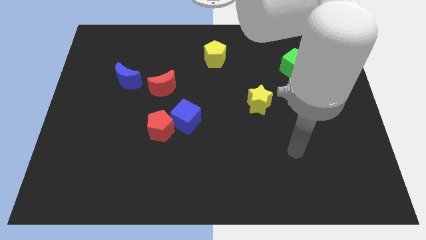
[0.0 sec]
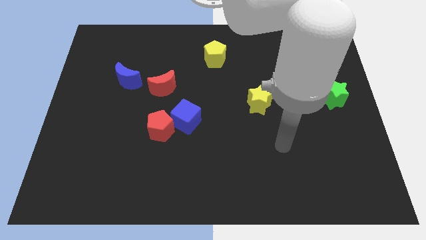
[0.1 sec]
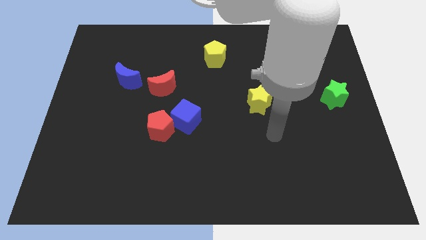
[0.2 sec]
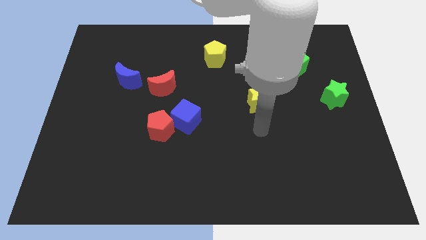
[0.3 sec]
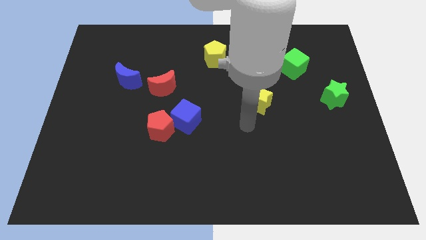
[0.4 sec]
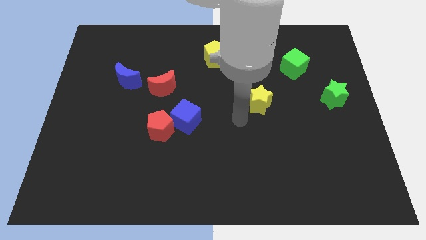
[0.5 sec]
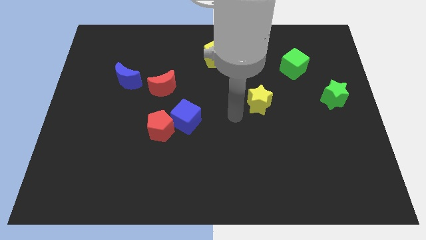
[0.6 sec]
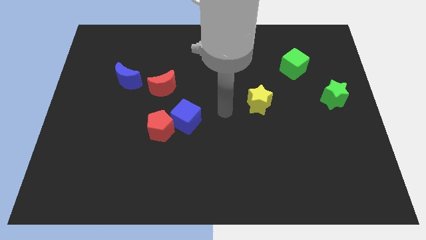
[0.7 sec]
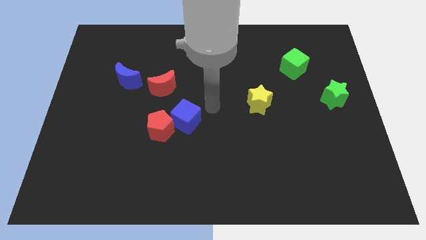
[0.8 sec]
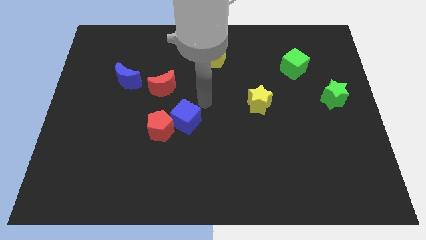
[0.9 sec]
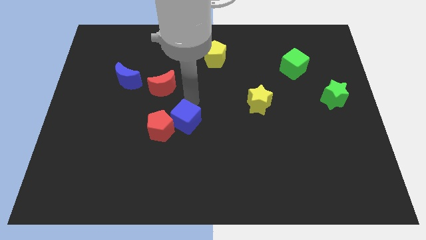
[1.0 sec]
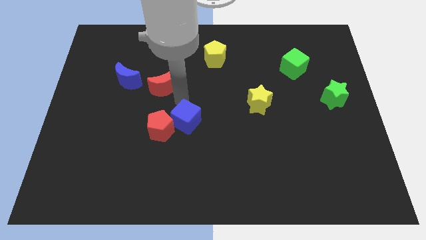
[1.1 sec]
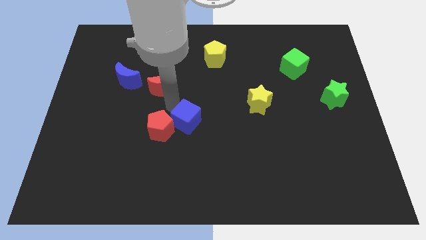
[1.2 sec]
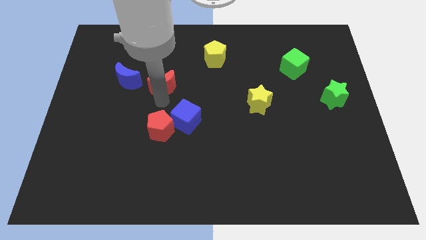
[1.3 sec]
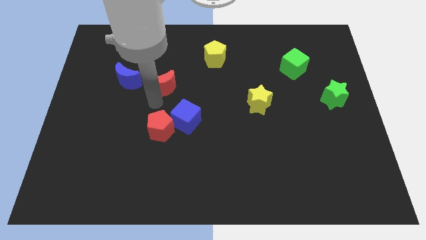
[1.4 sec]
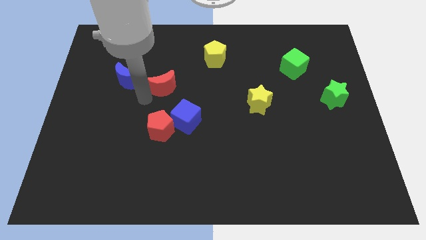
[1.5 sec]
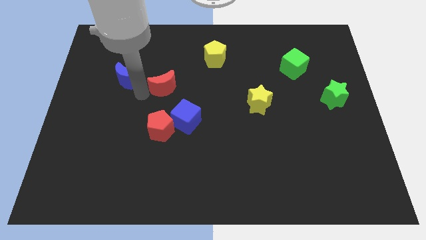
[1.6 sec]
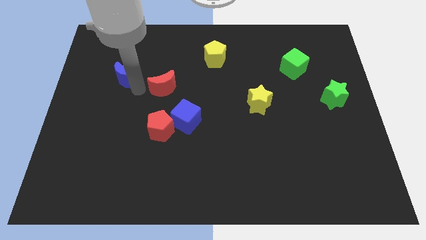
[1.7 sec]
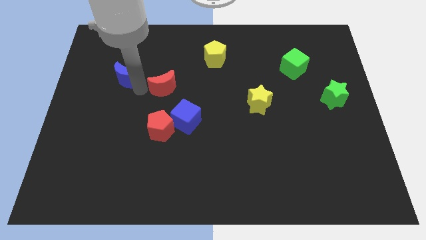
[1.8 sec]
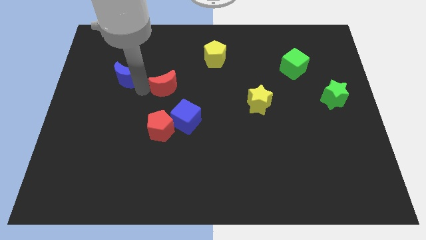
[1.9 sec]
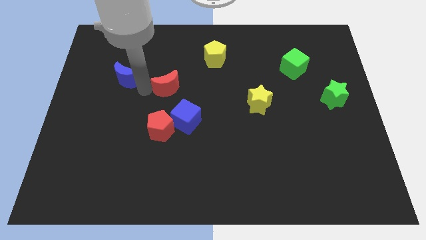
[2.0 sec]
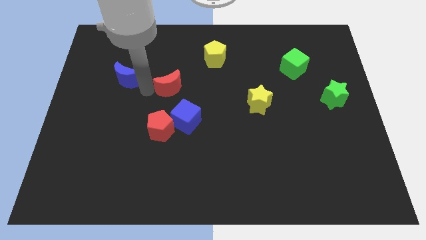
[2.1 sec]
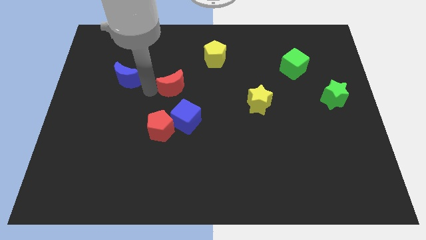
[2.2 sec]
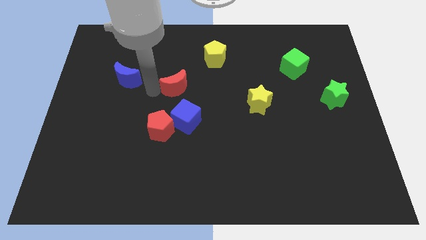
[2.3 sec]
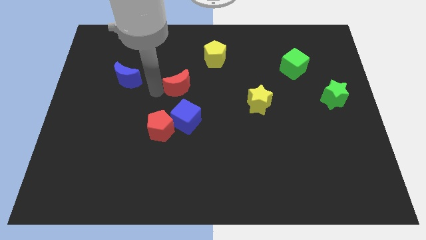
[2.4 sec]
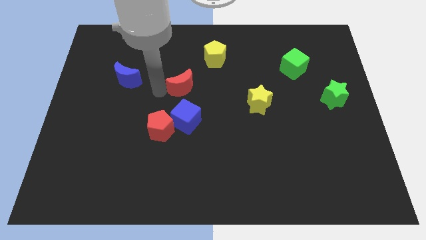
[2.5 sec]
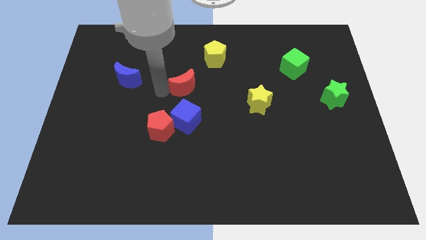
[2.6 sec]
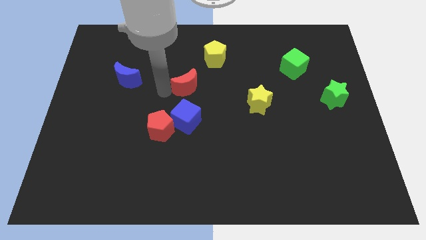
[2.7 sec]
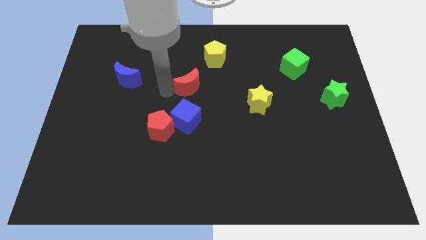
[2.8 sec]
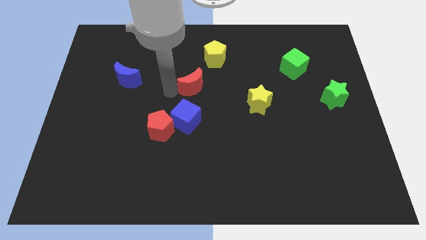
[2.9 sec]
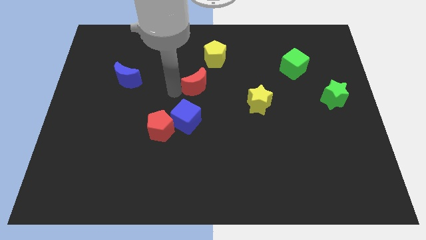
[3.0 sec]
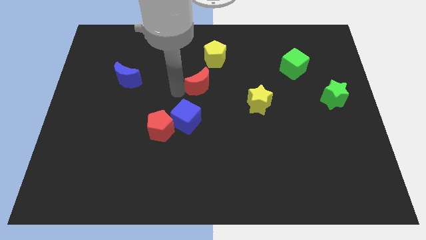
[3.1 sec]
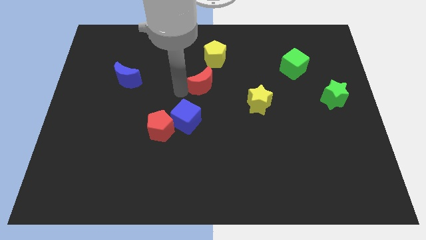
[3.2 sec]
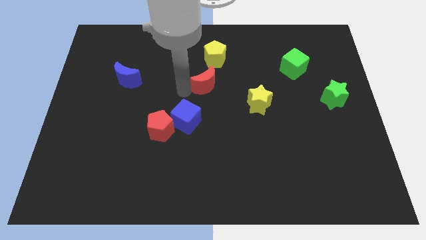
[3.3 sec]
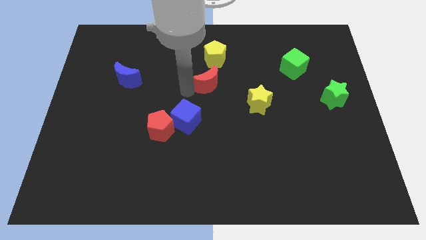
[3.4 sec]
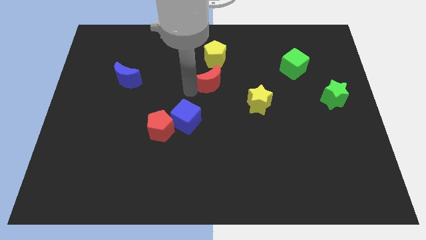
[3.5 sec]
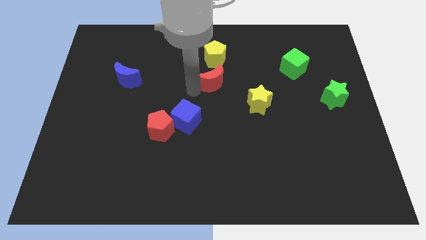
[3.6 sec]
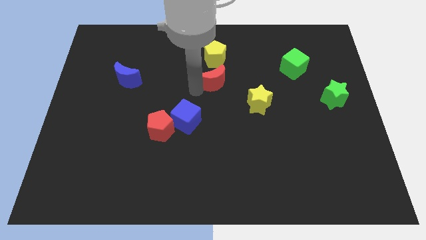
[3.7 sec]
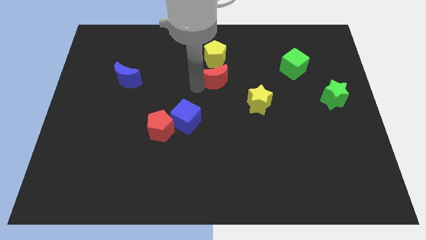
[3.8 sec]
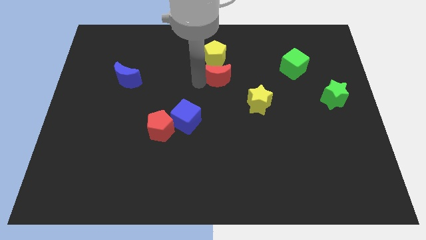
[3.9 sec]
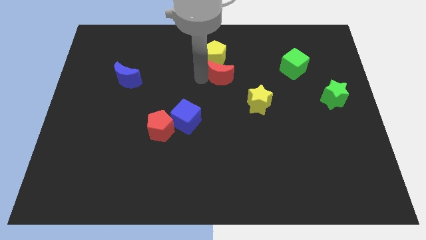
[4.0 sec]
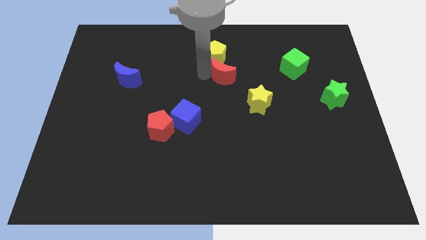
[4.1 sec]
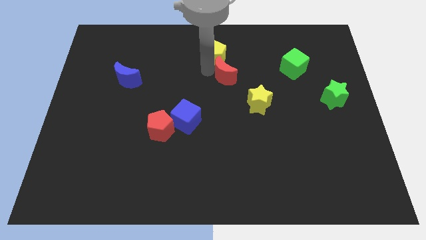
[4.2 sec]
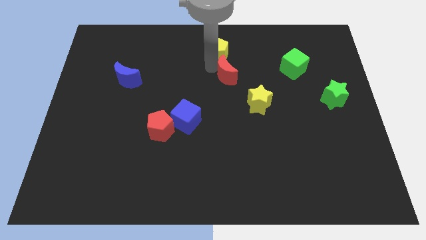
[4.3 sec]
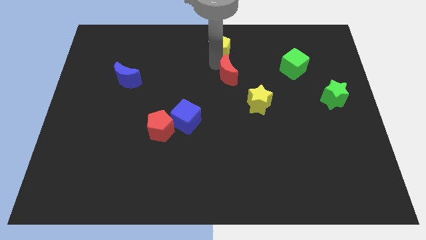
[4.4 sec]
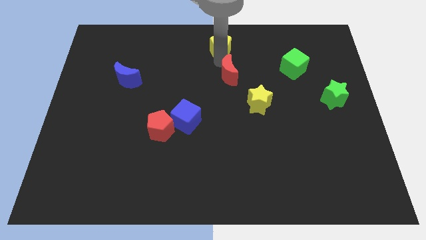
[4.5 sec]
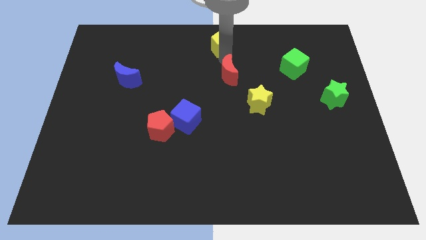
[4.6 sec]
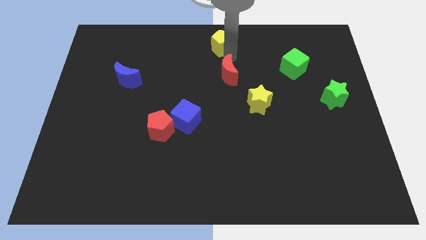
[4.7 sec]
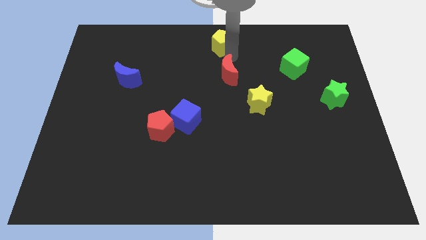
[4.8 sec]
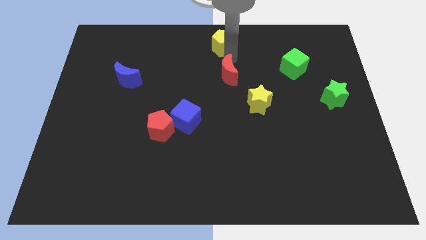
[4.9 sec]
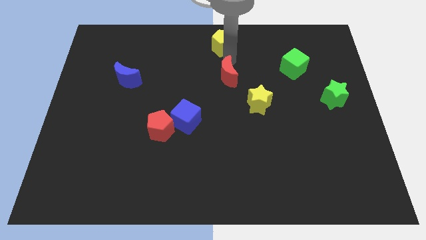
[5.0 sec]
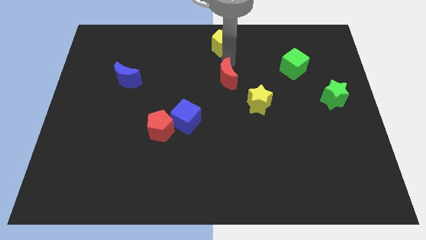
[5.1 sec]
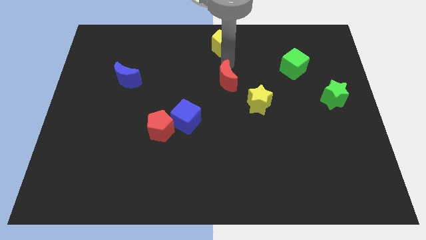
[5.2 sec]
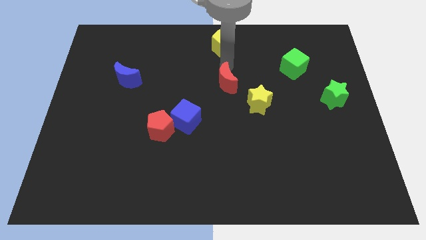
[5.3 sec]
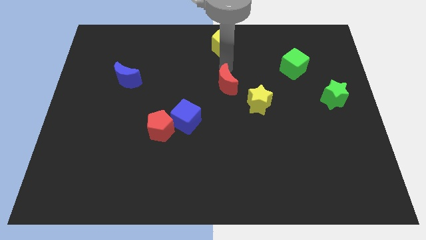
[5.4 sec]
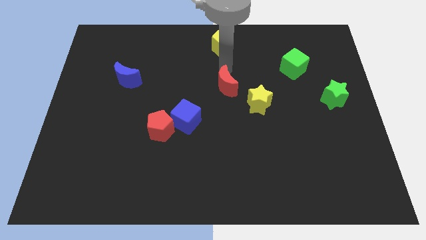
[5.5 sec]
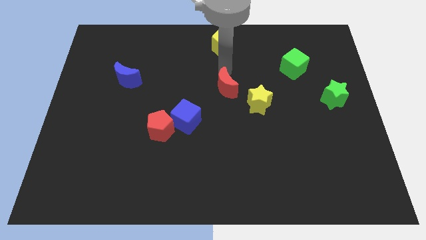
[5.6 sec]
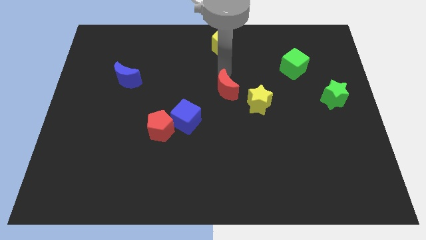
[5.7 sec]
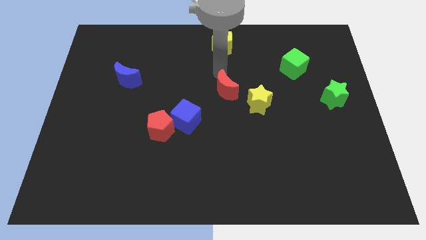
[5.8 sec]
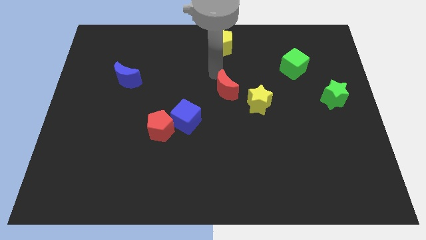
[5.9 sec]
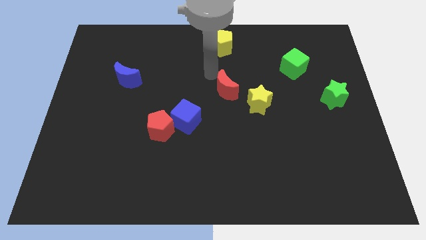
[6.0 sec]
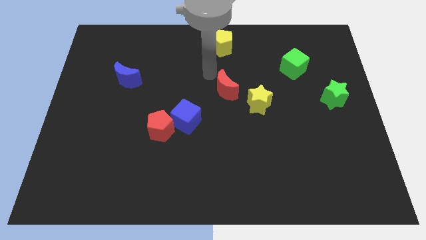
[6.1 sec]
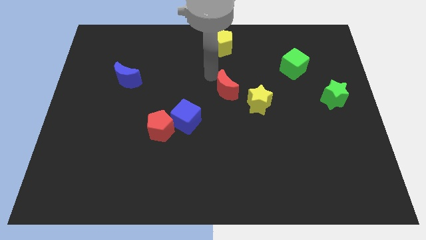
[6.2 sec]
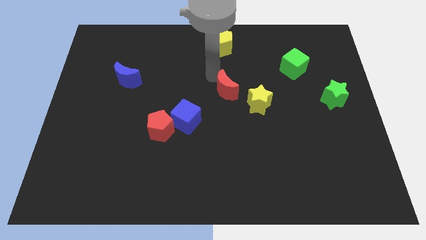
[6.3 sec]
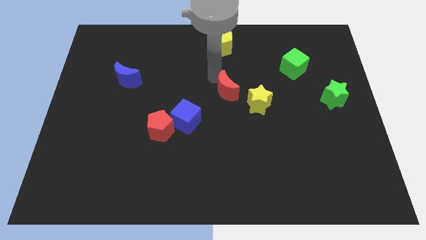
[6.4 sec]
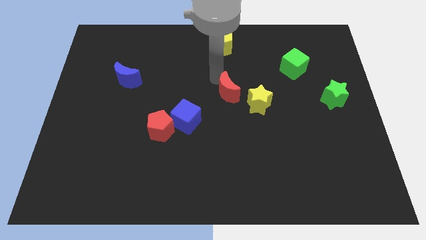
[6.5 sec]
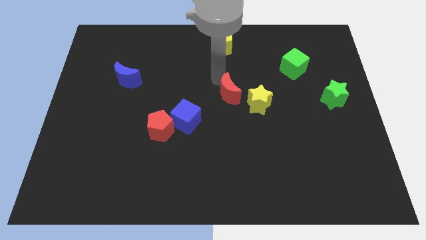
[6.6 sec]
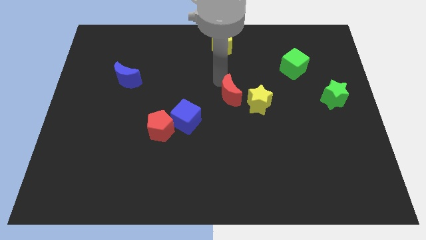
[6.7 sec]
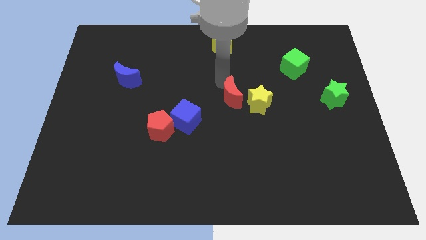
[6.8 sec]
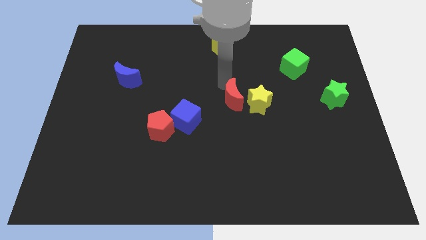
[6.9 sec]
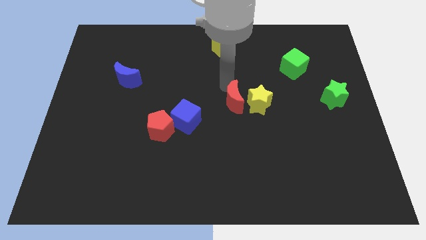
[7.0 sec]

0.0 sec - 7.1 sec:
push the red moon close to the yellow star

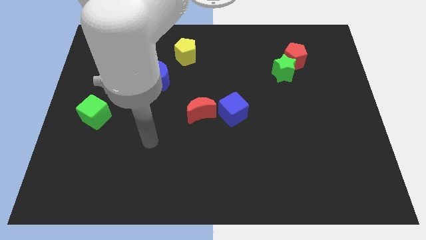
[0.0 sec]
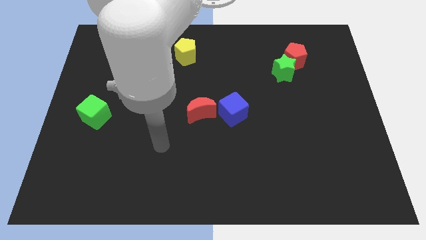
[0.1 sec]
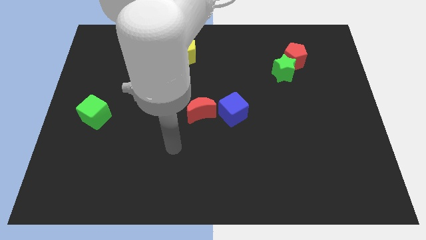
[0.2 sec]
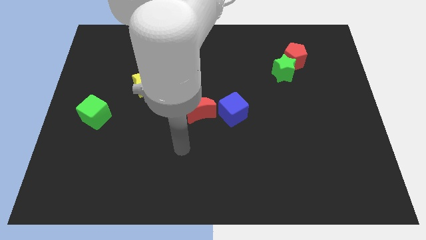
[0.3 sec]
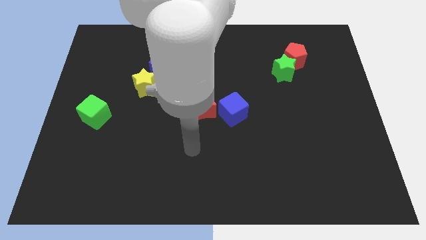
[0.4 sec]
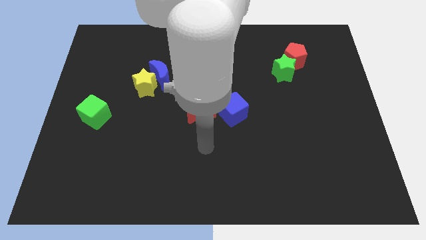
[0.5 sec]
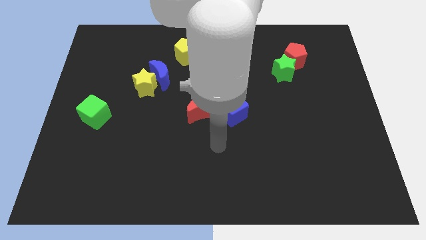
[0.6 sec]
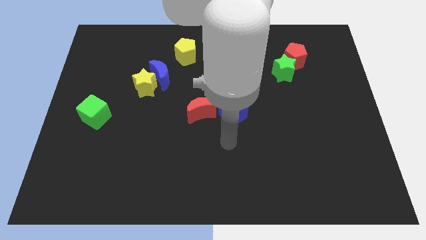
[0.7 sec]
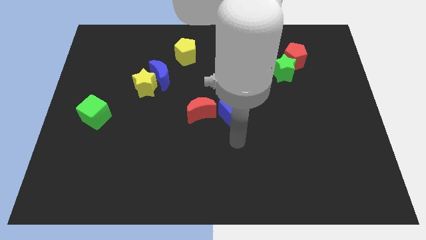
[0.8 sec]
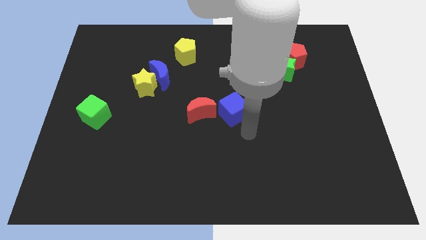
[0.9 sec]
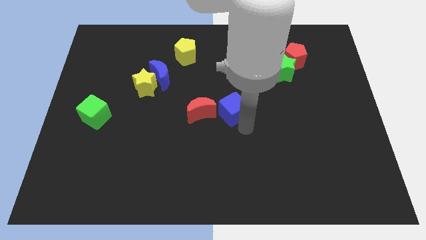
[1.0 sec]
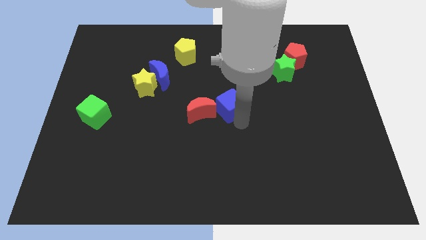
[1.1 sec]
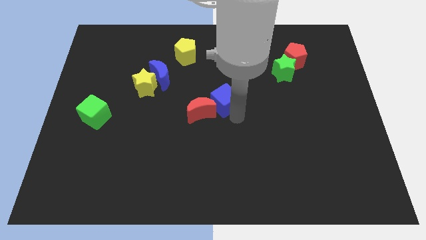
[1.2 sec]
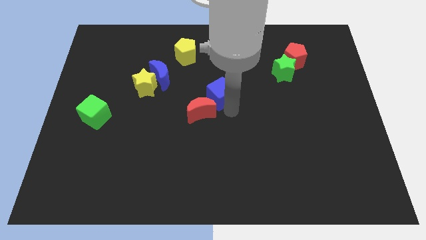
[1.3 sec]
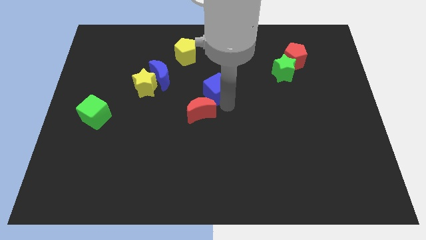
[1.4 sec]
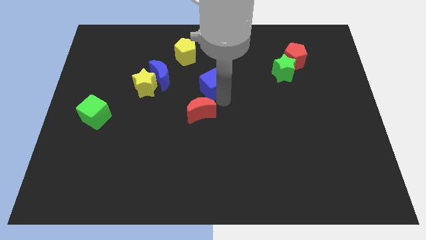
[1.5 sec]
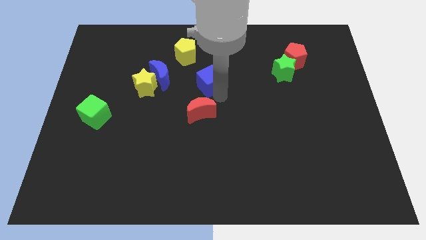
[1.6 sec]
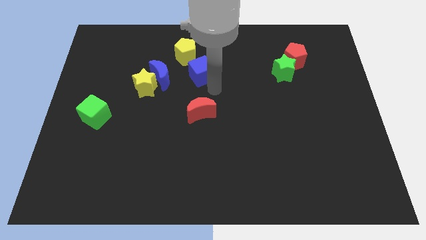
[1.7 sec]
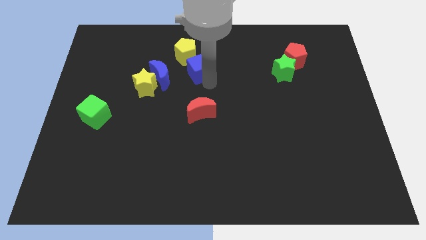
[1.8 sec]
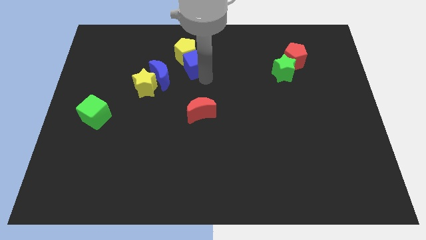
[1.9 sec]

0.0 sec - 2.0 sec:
push the blue cube towards the yellow pentagon
